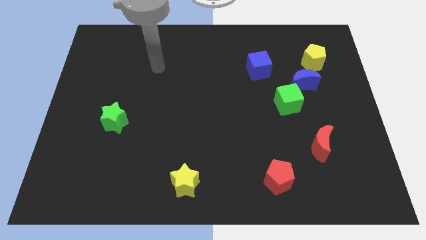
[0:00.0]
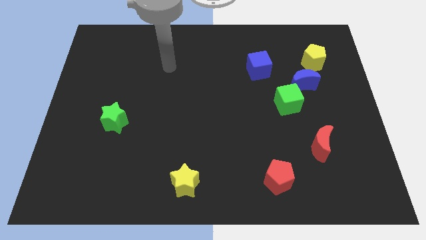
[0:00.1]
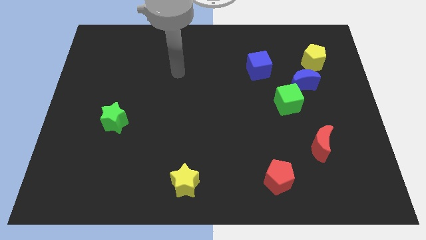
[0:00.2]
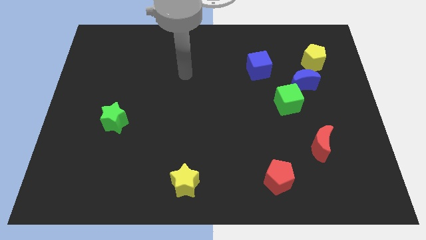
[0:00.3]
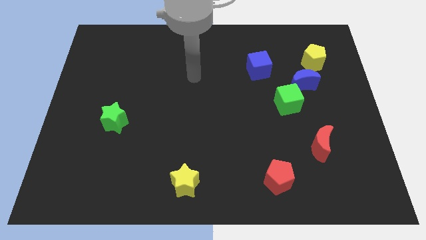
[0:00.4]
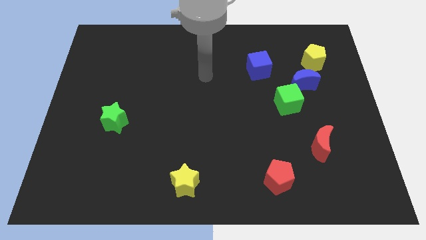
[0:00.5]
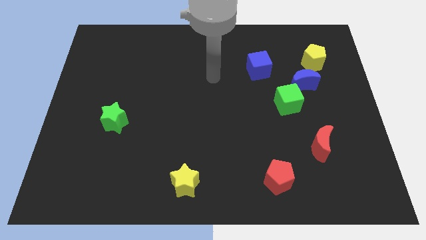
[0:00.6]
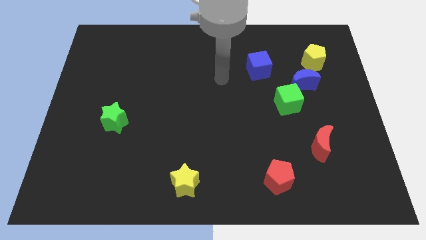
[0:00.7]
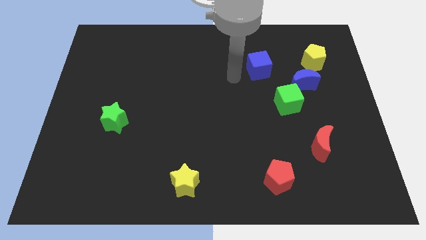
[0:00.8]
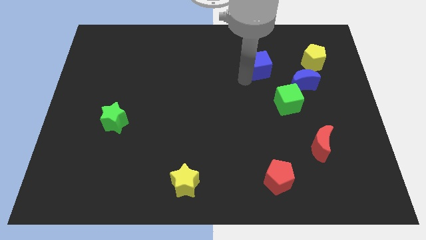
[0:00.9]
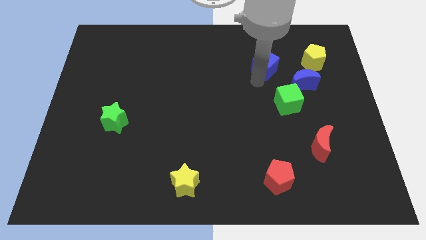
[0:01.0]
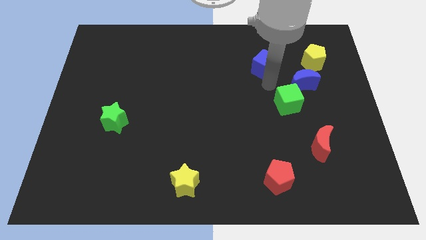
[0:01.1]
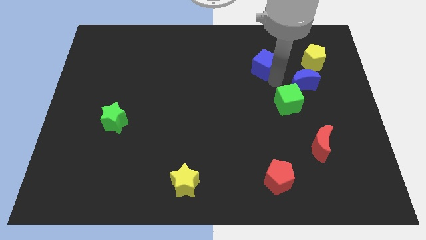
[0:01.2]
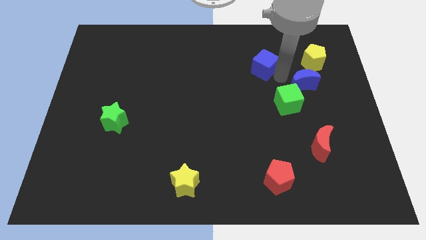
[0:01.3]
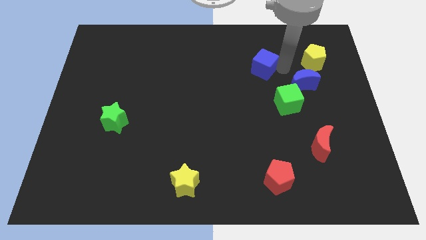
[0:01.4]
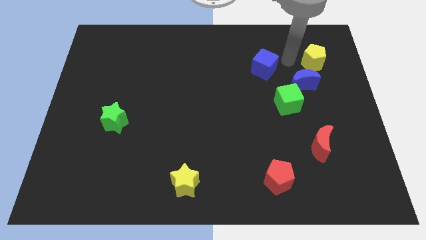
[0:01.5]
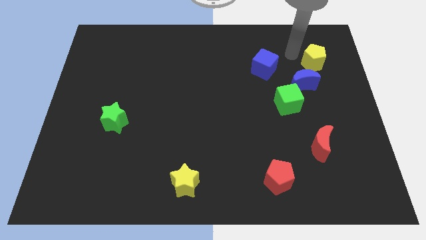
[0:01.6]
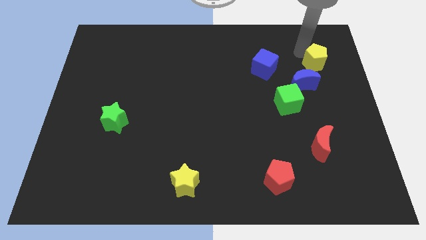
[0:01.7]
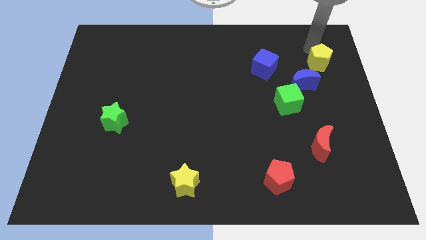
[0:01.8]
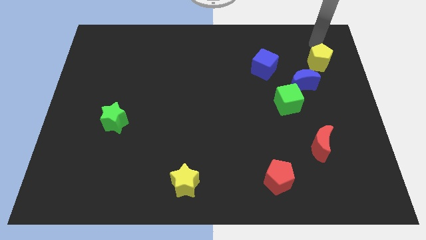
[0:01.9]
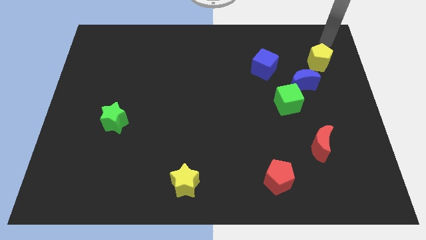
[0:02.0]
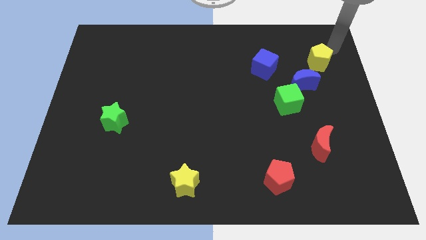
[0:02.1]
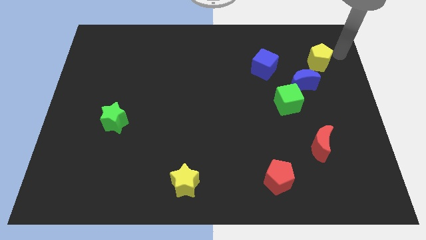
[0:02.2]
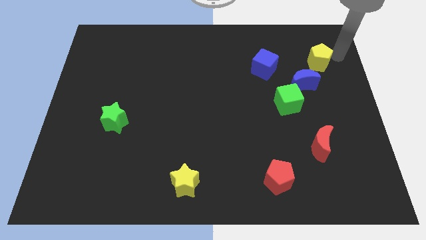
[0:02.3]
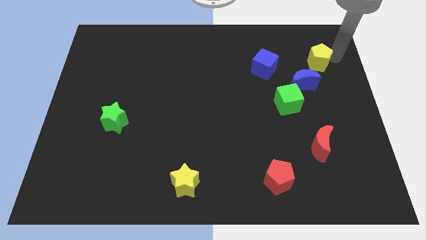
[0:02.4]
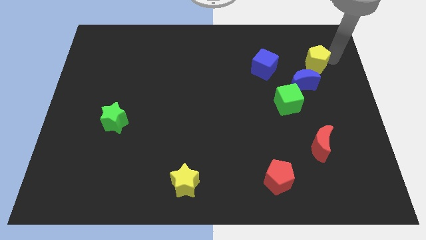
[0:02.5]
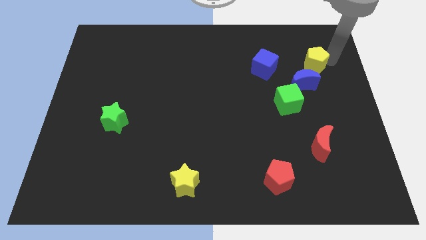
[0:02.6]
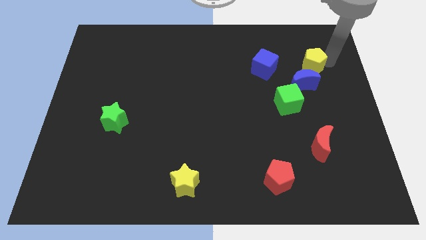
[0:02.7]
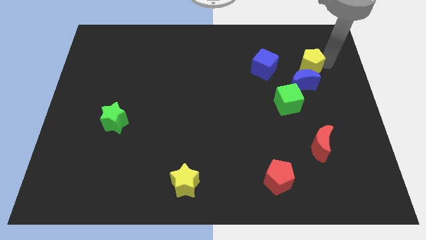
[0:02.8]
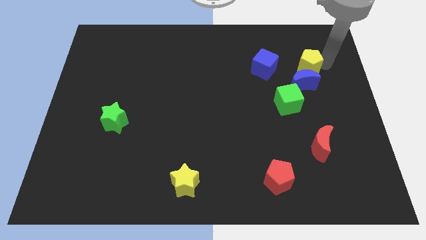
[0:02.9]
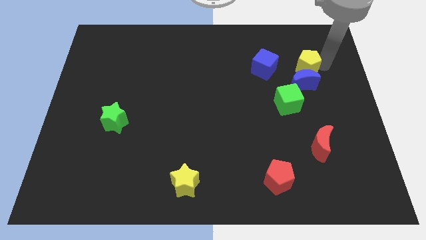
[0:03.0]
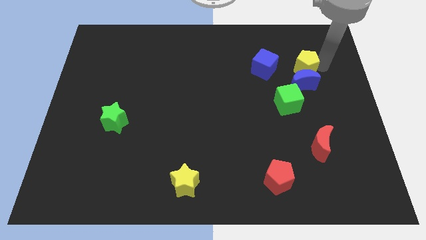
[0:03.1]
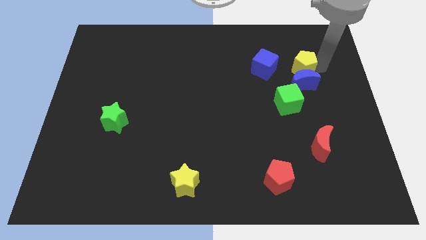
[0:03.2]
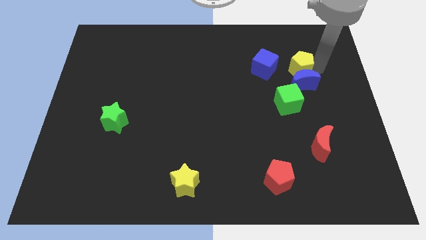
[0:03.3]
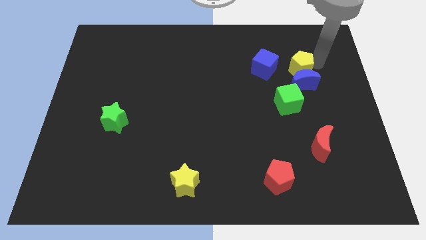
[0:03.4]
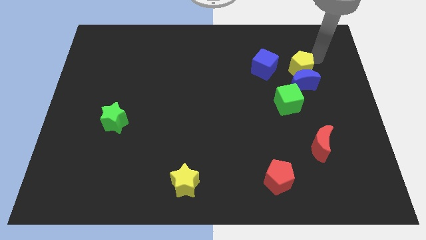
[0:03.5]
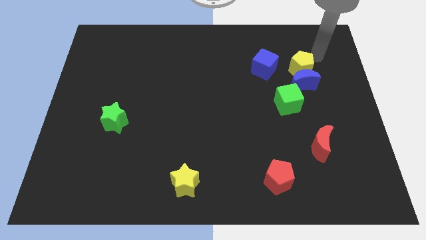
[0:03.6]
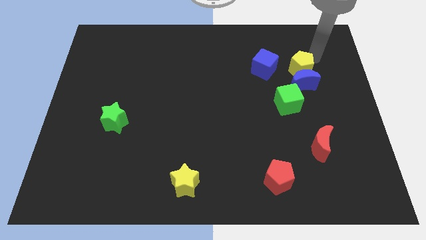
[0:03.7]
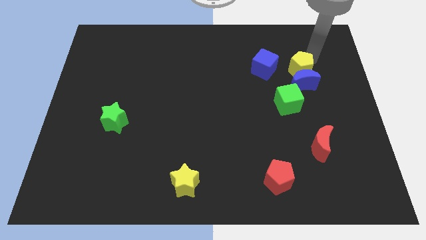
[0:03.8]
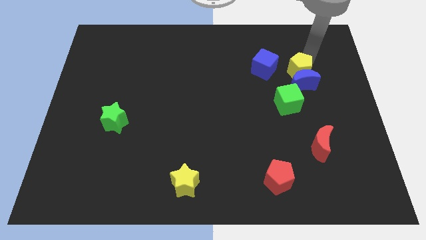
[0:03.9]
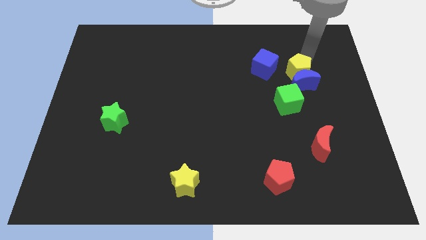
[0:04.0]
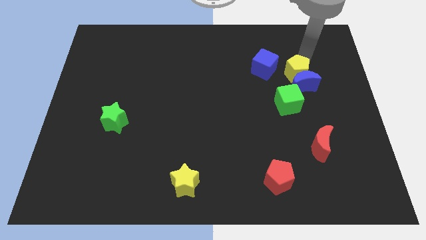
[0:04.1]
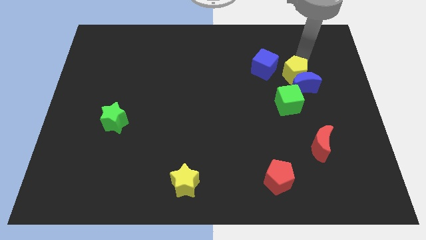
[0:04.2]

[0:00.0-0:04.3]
slide the yellow pentagon slightly down and then left

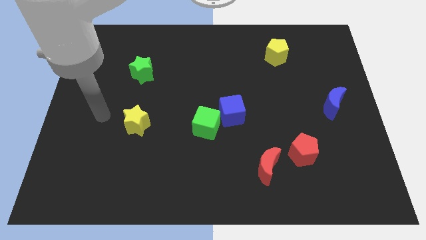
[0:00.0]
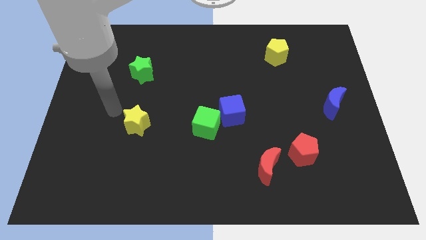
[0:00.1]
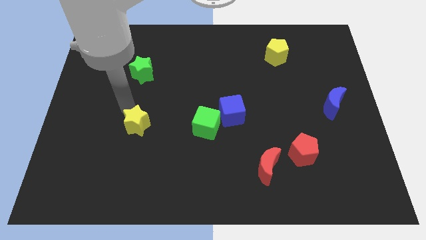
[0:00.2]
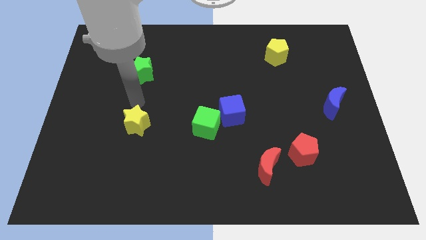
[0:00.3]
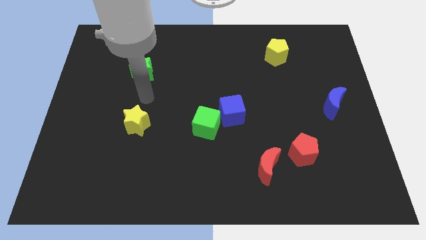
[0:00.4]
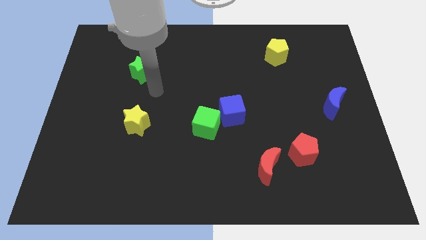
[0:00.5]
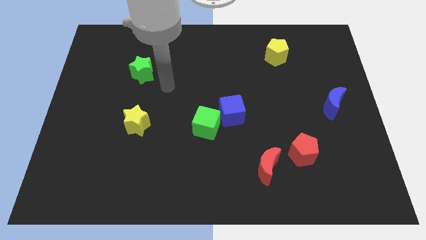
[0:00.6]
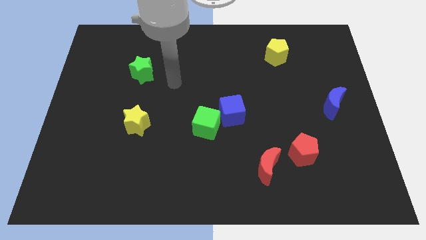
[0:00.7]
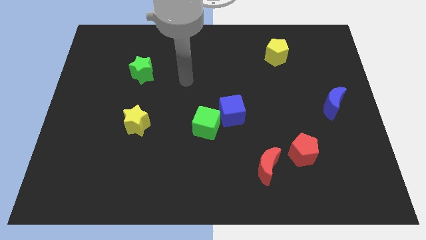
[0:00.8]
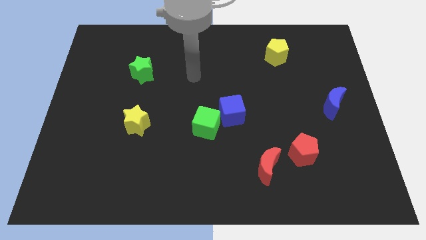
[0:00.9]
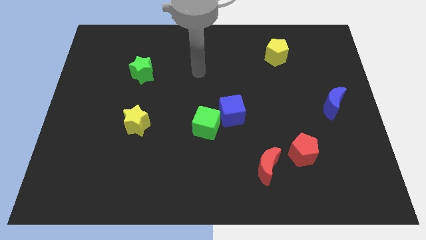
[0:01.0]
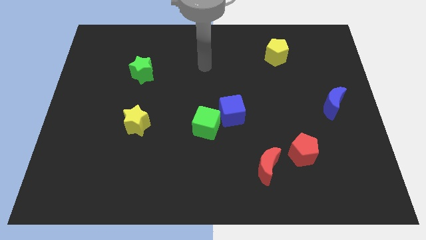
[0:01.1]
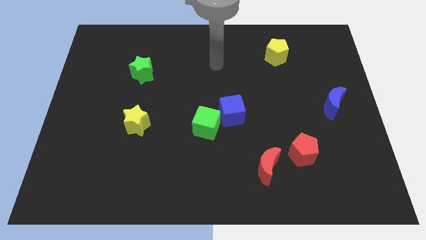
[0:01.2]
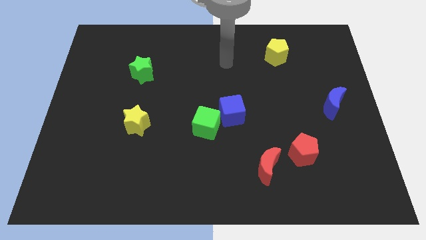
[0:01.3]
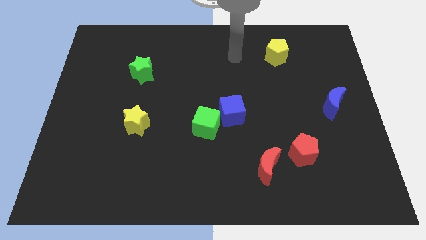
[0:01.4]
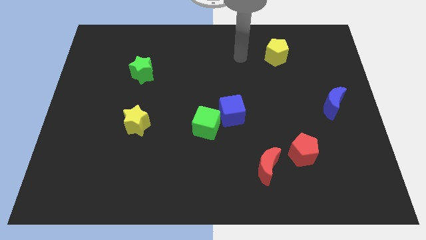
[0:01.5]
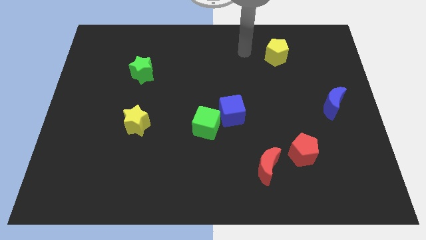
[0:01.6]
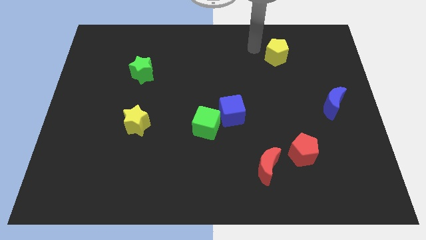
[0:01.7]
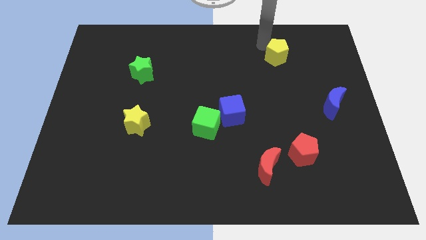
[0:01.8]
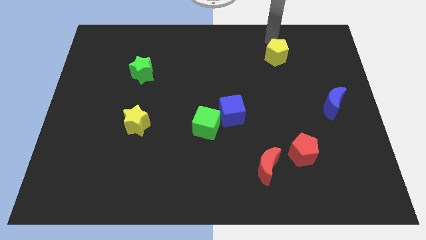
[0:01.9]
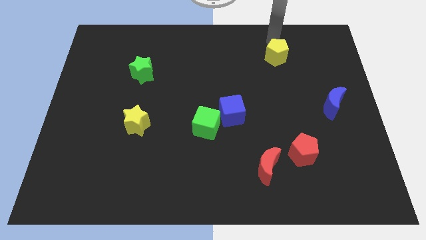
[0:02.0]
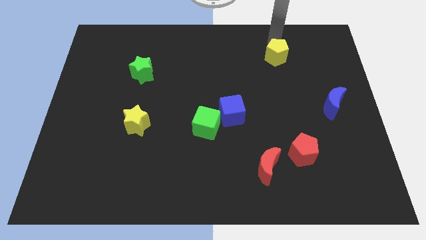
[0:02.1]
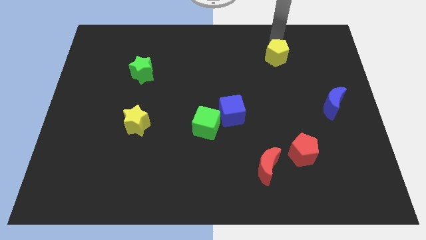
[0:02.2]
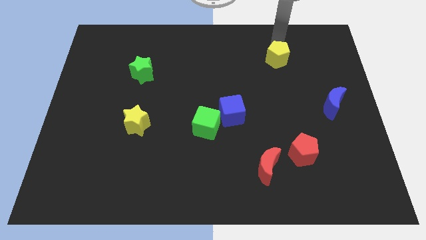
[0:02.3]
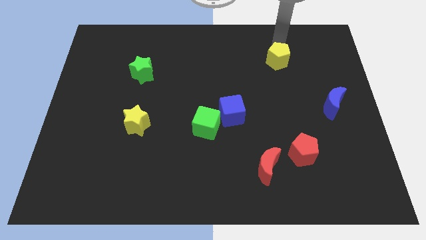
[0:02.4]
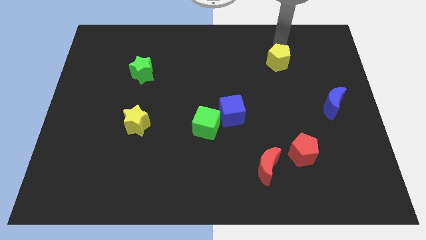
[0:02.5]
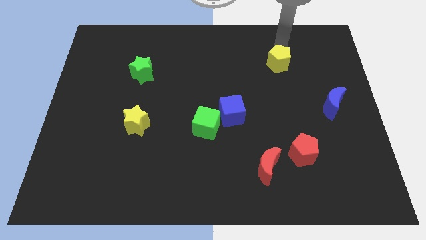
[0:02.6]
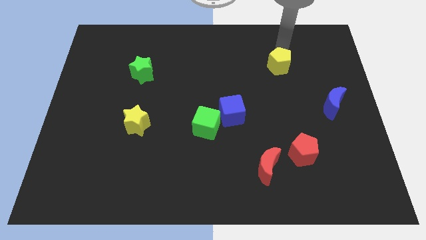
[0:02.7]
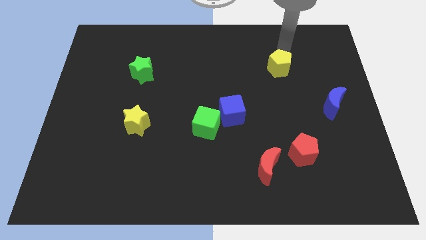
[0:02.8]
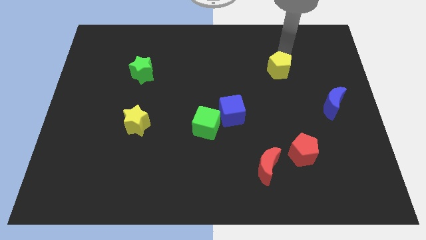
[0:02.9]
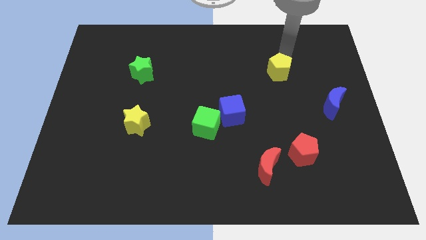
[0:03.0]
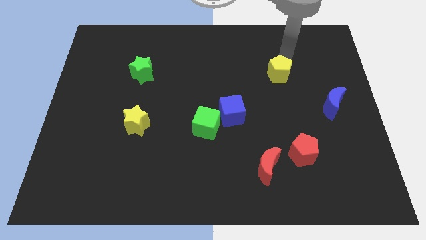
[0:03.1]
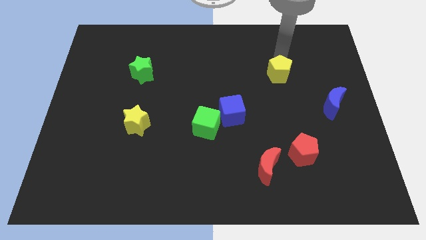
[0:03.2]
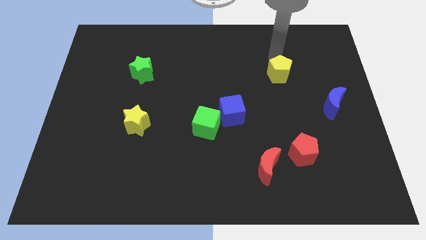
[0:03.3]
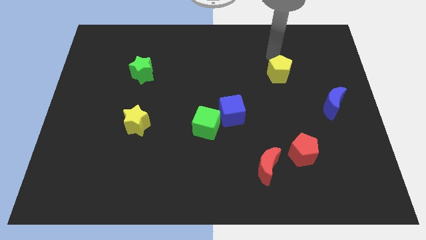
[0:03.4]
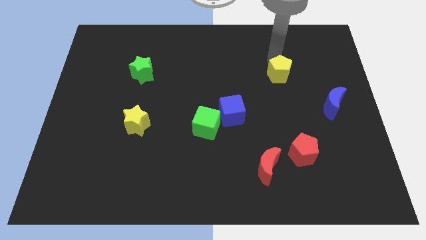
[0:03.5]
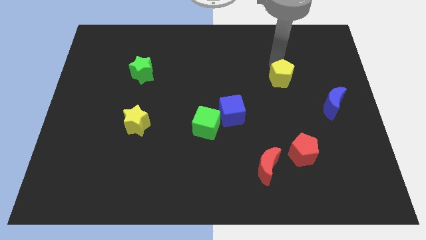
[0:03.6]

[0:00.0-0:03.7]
push the yellow pentagon slightly downwards
